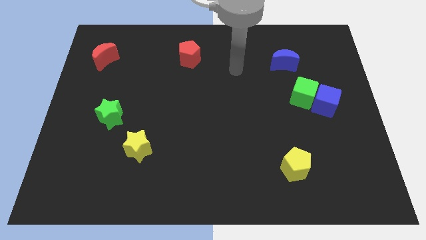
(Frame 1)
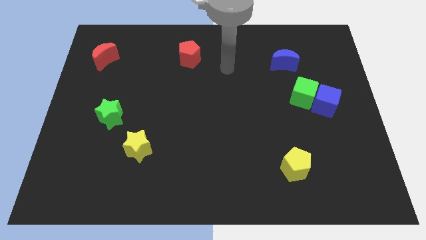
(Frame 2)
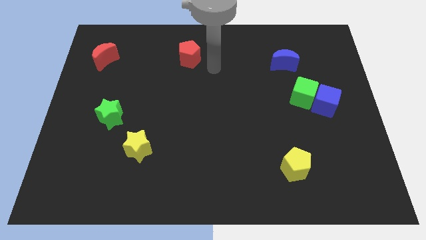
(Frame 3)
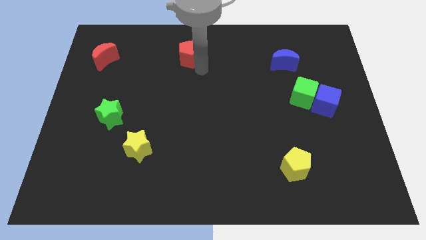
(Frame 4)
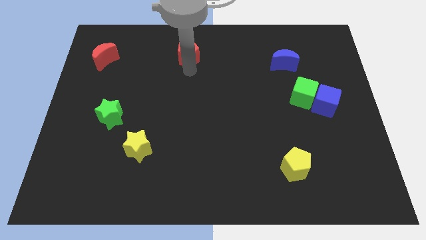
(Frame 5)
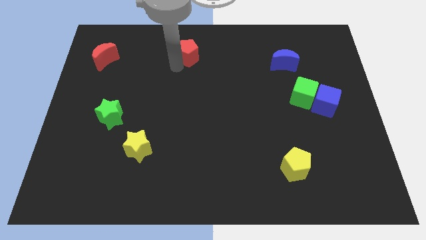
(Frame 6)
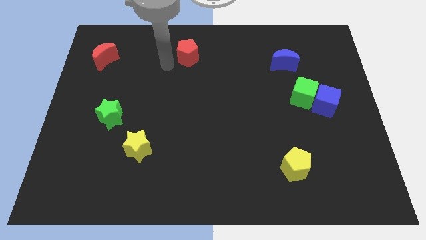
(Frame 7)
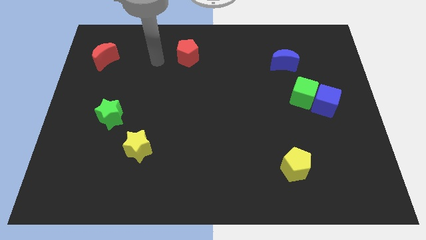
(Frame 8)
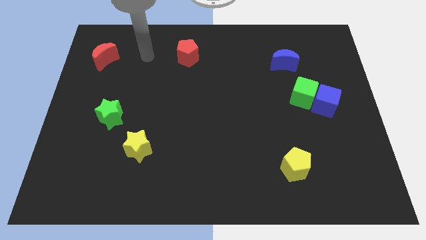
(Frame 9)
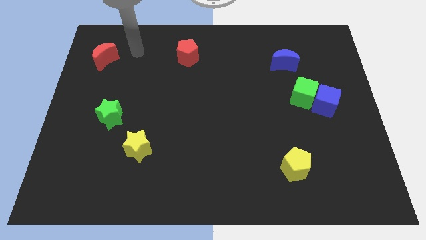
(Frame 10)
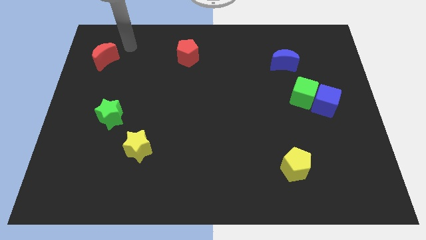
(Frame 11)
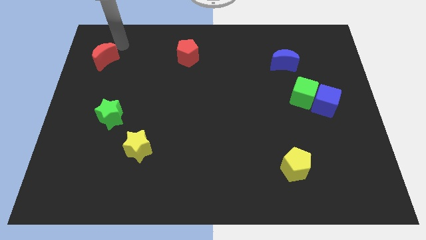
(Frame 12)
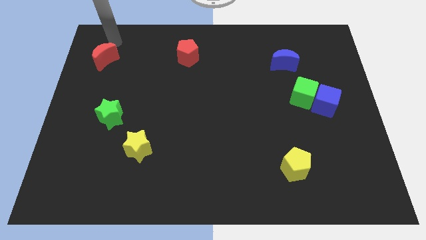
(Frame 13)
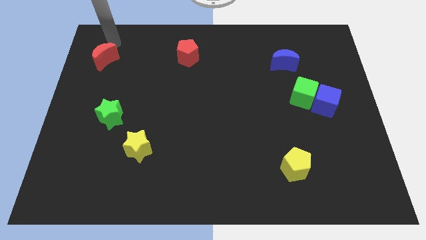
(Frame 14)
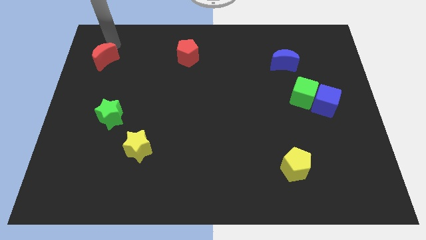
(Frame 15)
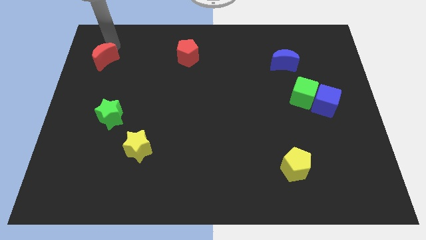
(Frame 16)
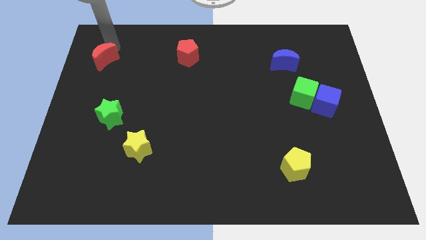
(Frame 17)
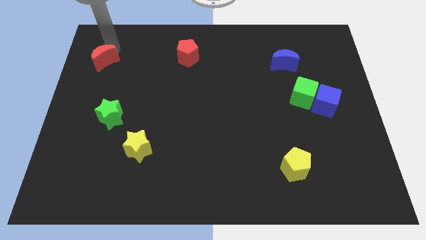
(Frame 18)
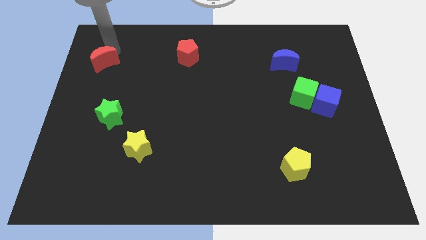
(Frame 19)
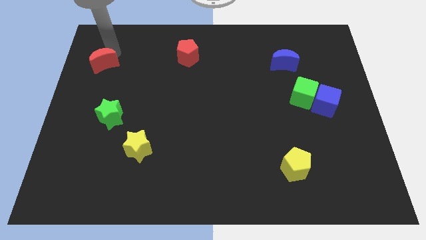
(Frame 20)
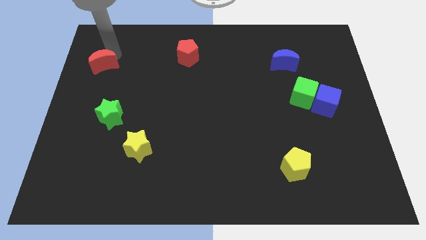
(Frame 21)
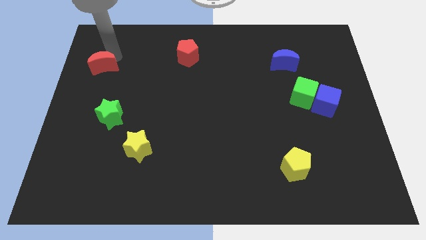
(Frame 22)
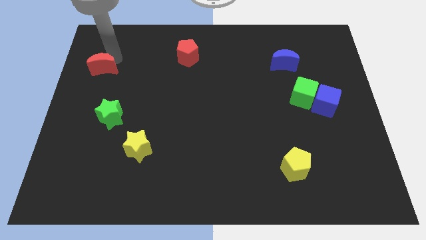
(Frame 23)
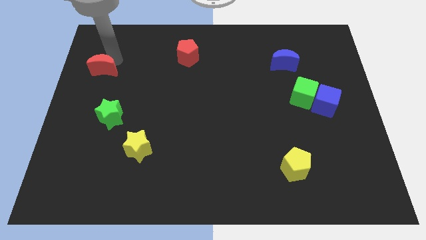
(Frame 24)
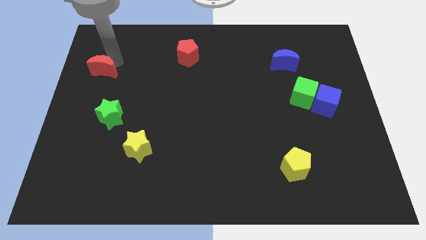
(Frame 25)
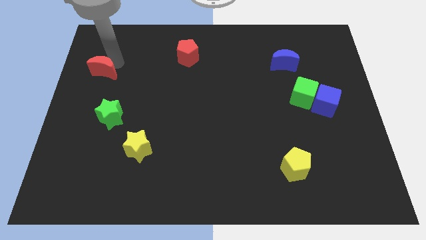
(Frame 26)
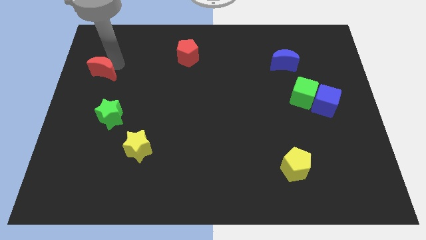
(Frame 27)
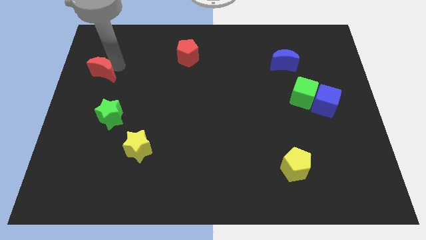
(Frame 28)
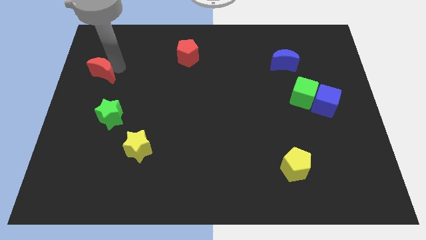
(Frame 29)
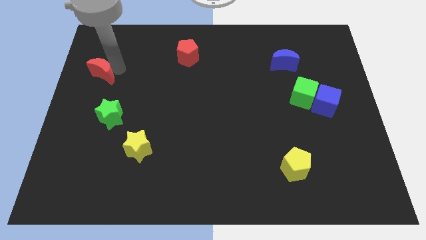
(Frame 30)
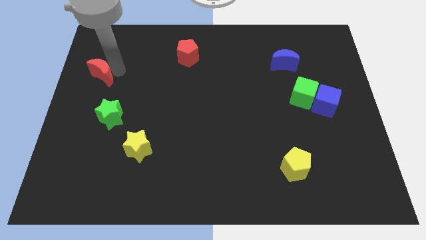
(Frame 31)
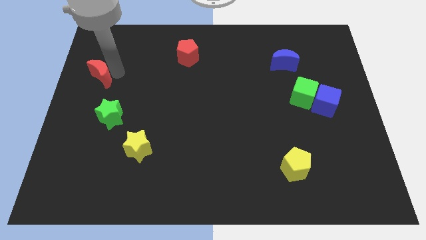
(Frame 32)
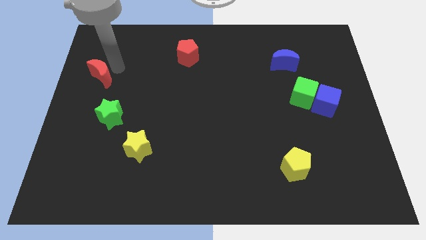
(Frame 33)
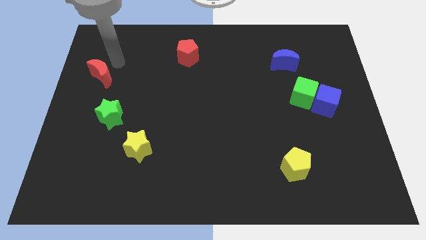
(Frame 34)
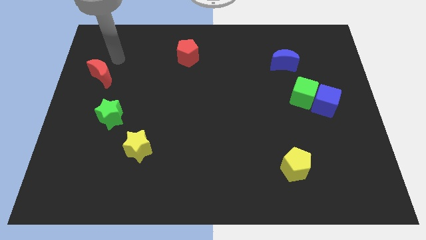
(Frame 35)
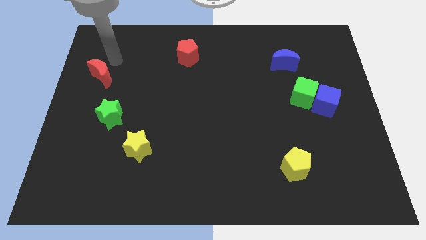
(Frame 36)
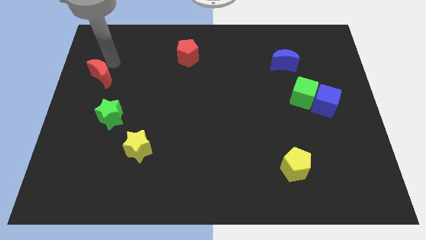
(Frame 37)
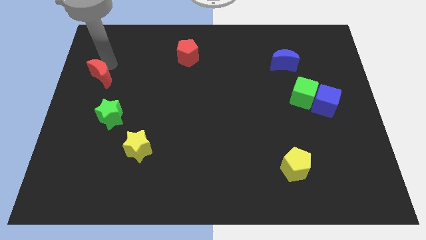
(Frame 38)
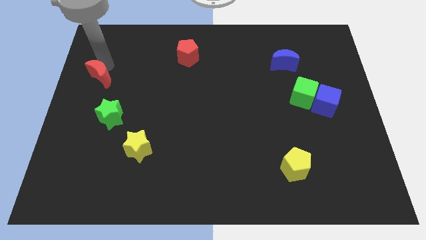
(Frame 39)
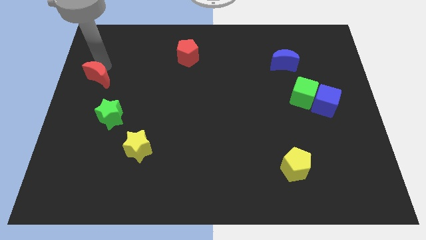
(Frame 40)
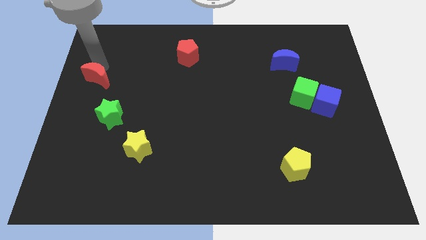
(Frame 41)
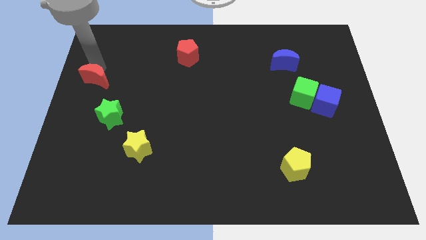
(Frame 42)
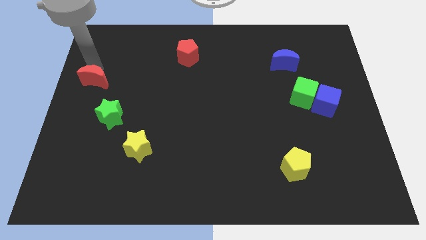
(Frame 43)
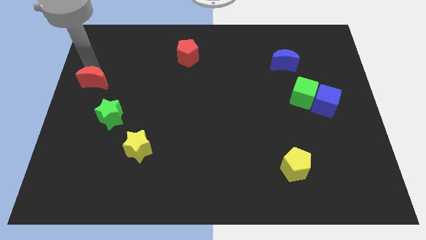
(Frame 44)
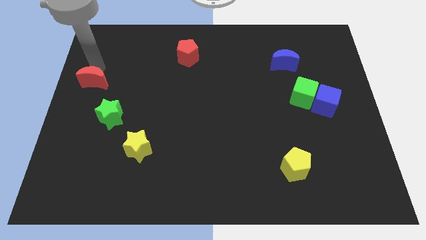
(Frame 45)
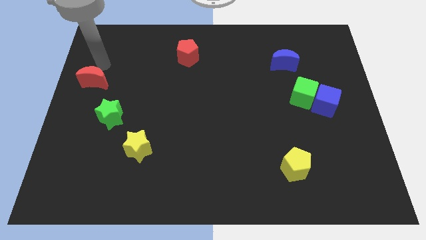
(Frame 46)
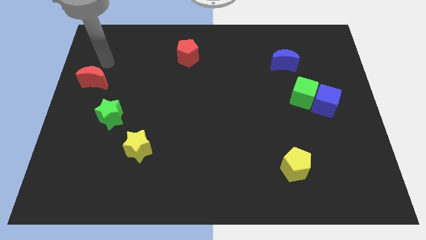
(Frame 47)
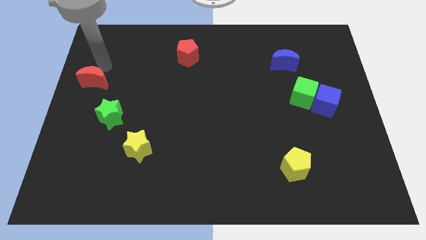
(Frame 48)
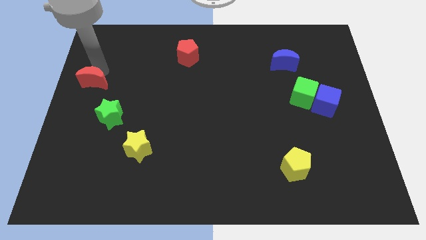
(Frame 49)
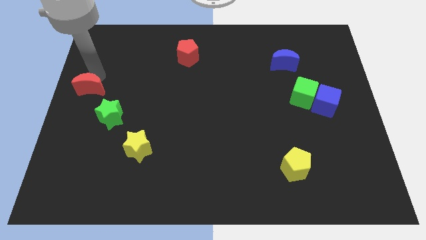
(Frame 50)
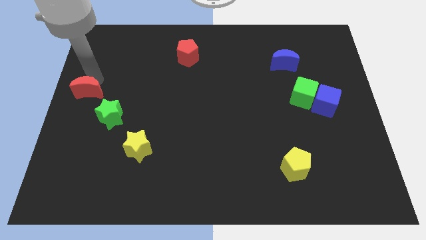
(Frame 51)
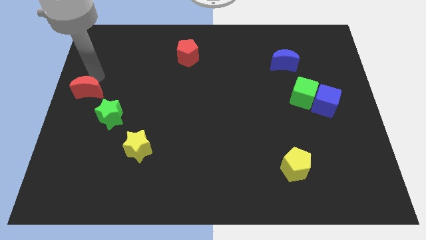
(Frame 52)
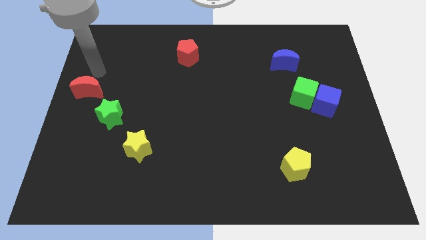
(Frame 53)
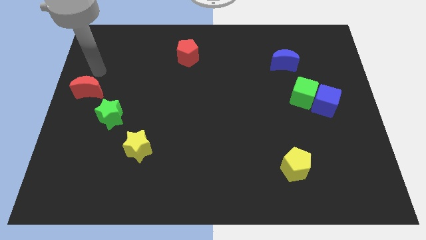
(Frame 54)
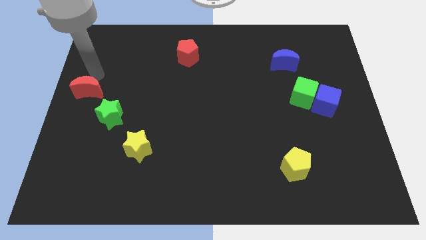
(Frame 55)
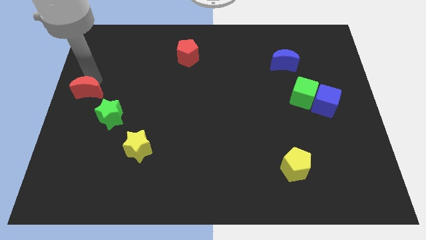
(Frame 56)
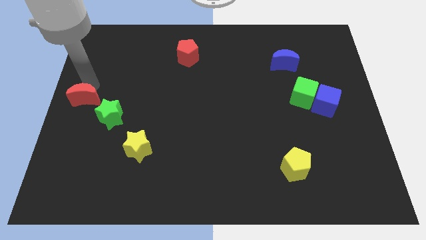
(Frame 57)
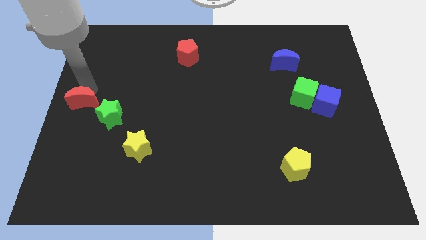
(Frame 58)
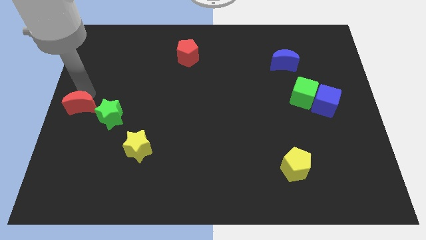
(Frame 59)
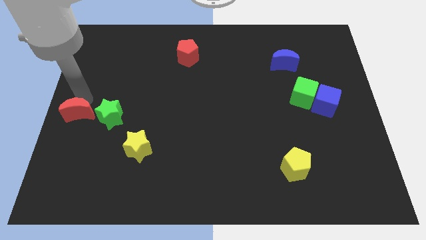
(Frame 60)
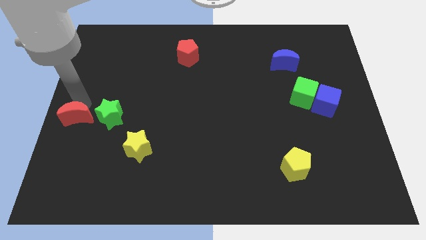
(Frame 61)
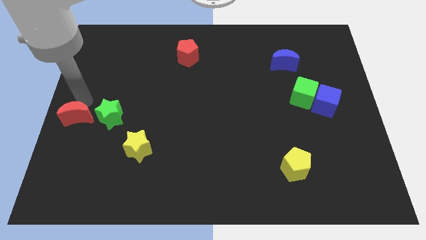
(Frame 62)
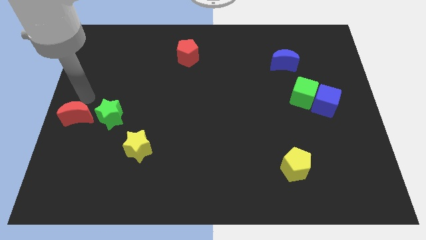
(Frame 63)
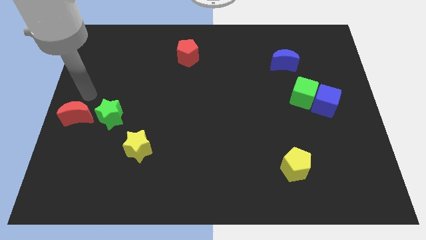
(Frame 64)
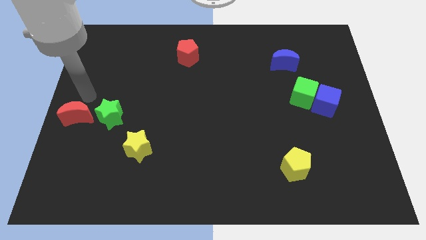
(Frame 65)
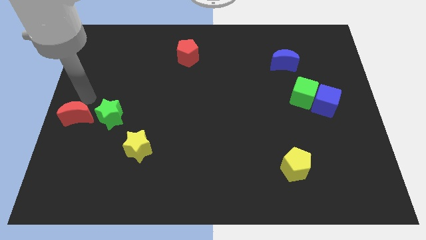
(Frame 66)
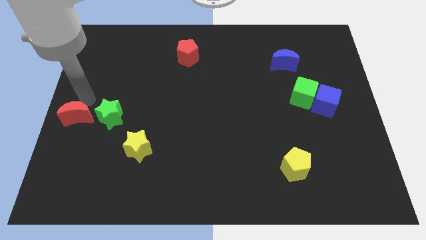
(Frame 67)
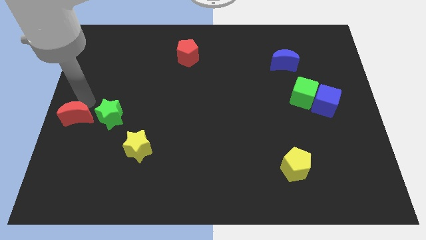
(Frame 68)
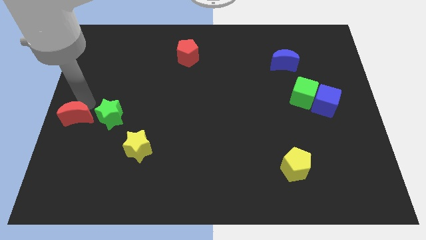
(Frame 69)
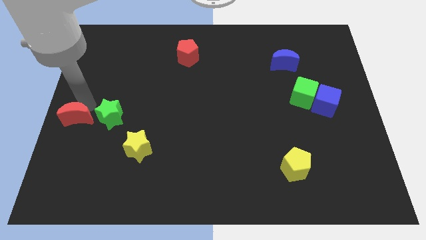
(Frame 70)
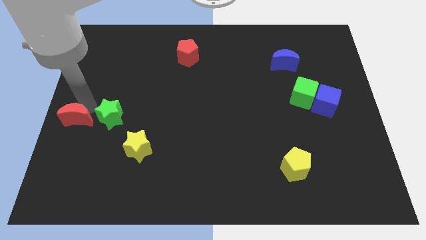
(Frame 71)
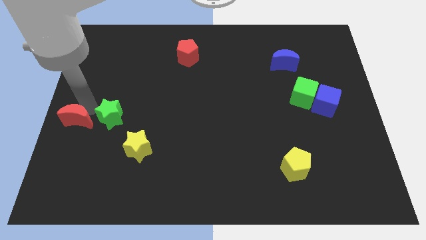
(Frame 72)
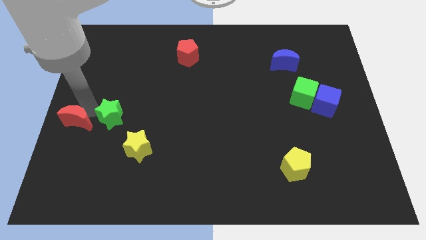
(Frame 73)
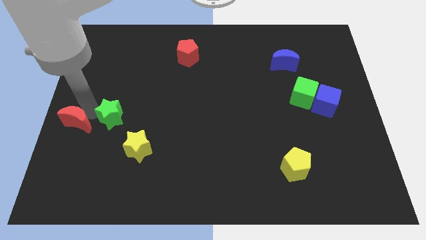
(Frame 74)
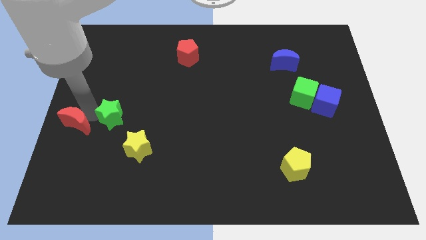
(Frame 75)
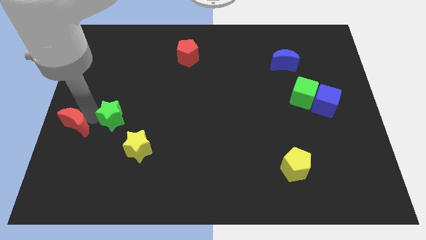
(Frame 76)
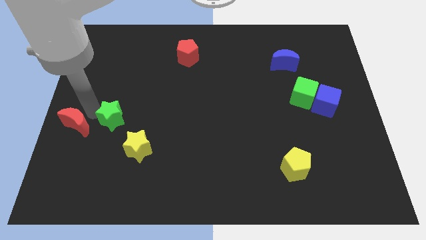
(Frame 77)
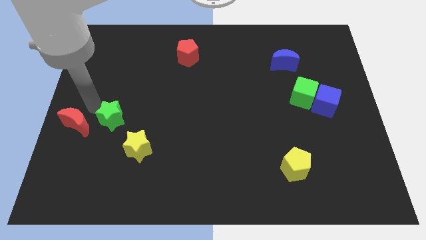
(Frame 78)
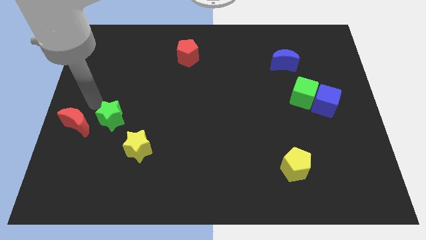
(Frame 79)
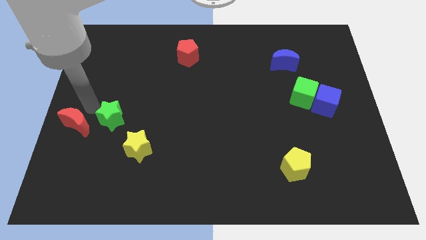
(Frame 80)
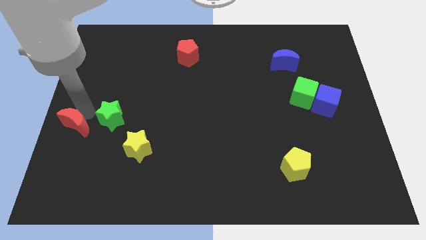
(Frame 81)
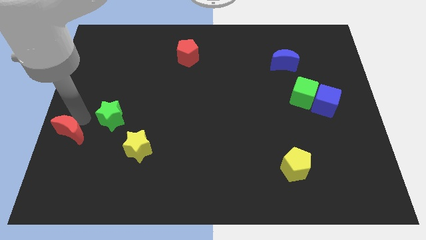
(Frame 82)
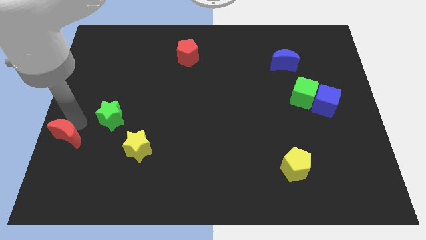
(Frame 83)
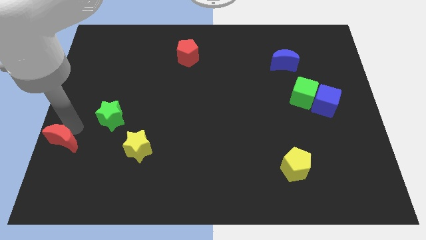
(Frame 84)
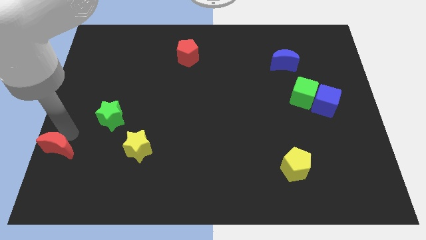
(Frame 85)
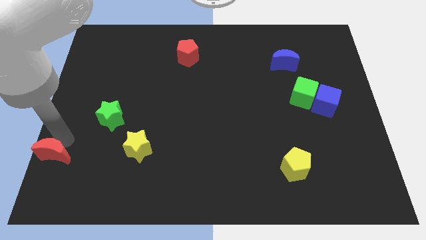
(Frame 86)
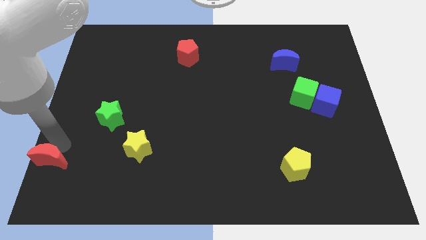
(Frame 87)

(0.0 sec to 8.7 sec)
move the red moon to the bottom left
